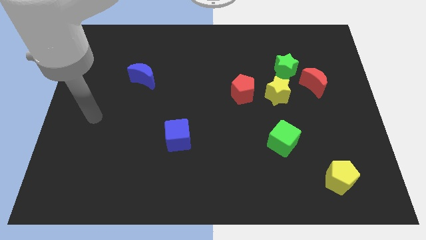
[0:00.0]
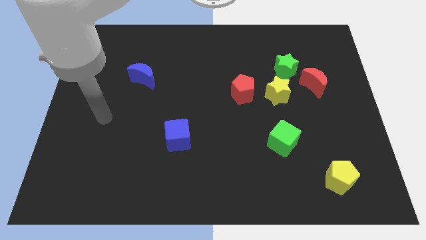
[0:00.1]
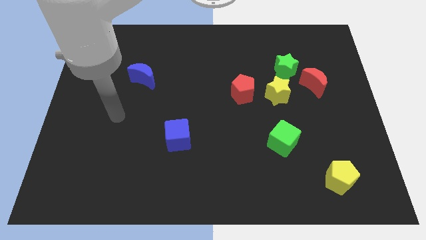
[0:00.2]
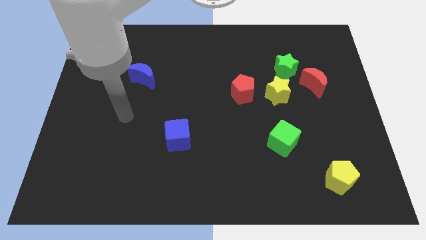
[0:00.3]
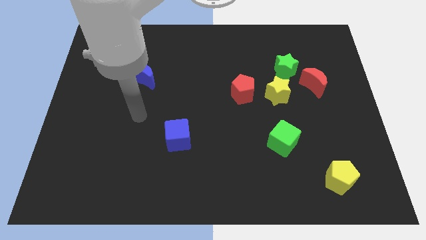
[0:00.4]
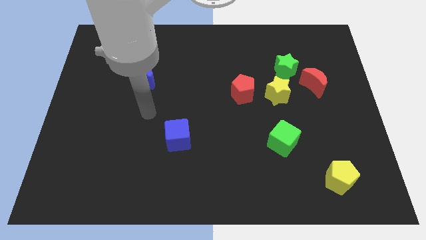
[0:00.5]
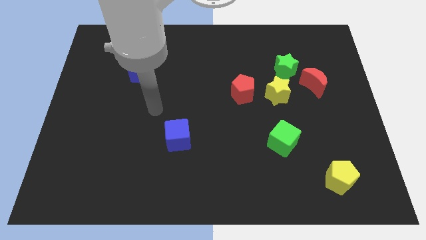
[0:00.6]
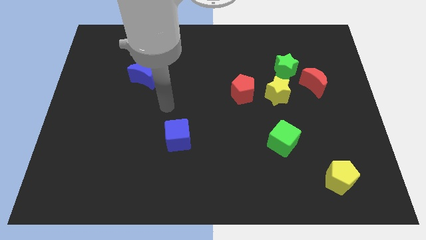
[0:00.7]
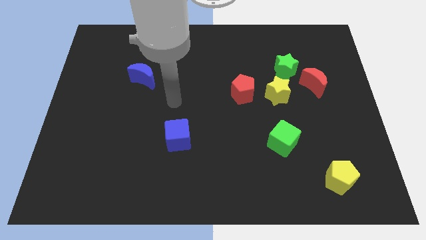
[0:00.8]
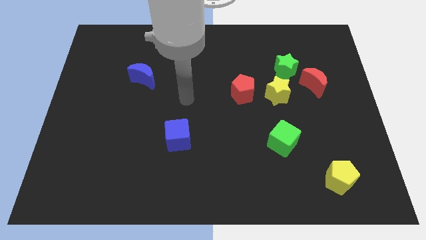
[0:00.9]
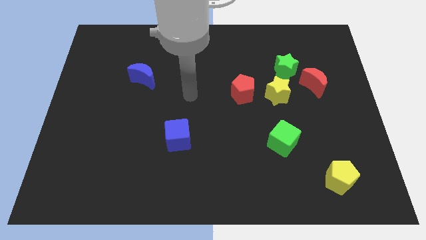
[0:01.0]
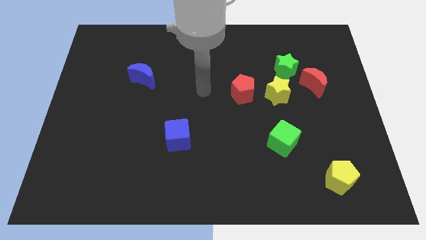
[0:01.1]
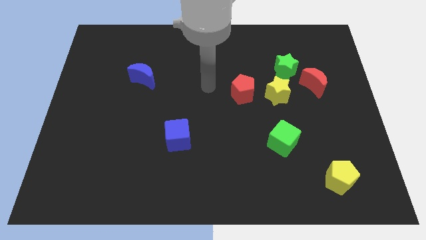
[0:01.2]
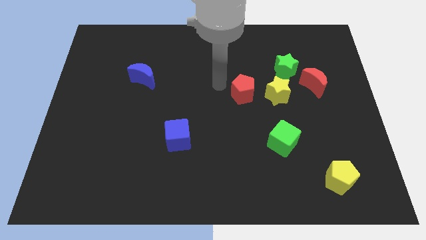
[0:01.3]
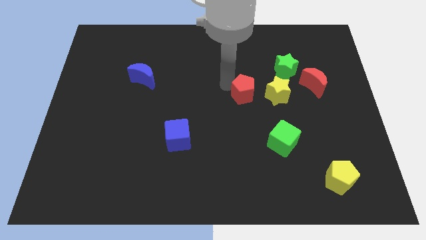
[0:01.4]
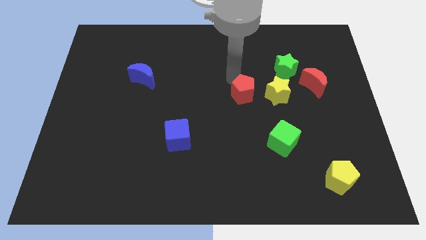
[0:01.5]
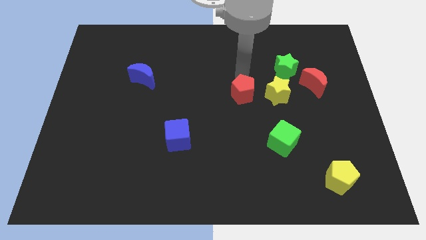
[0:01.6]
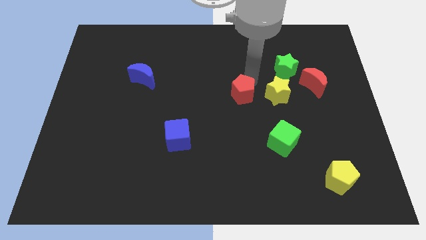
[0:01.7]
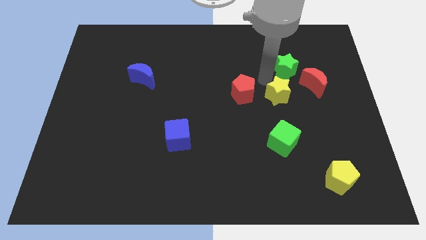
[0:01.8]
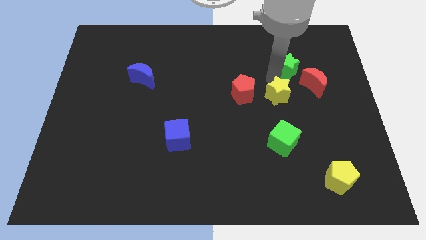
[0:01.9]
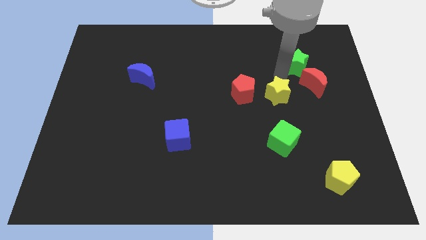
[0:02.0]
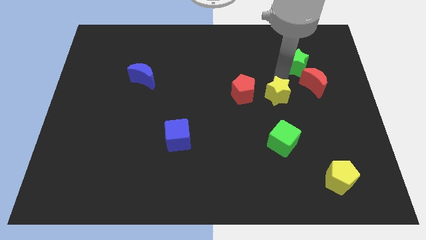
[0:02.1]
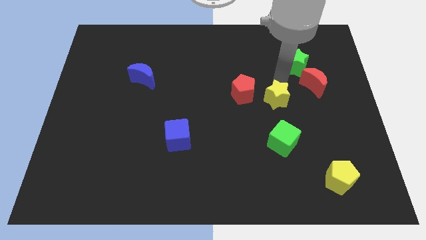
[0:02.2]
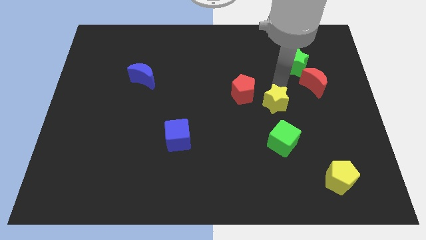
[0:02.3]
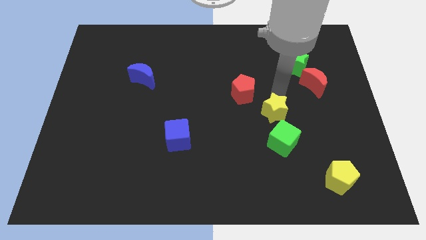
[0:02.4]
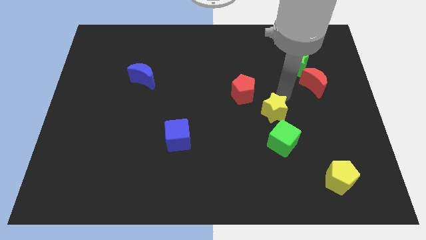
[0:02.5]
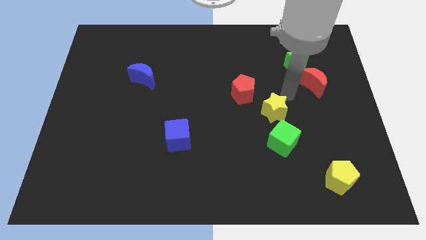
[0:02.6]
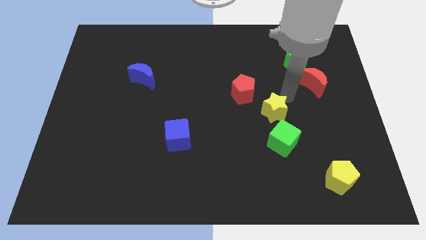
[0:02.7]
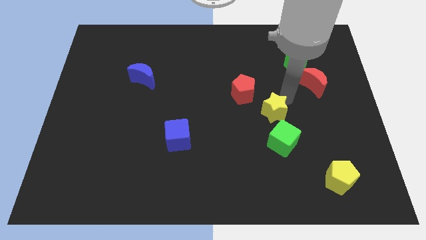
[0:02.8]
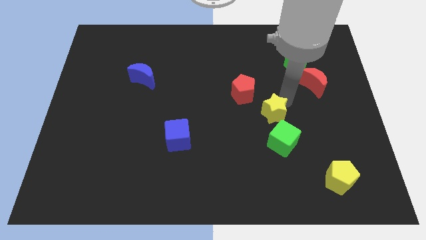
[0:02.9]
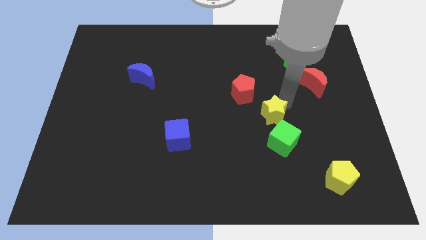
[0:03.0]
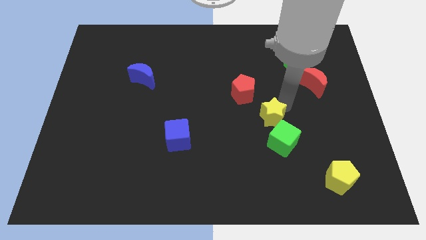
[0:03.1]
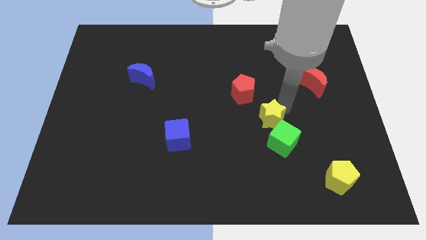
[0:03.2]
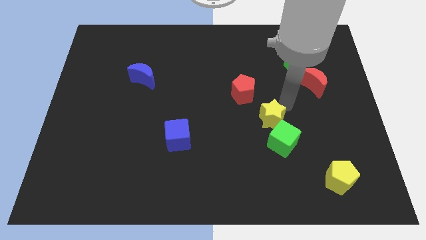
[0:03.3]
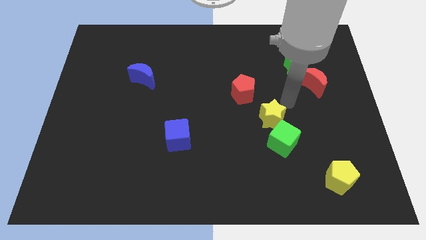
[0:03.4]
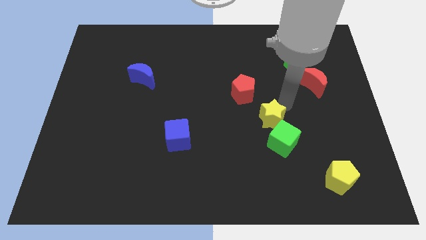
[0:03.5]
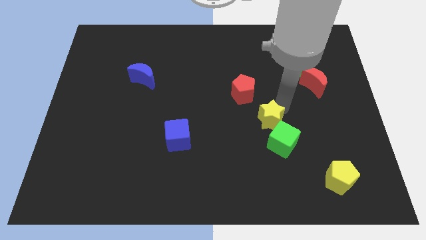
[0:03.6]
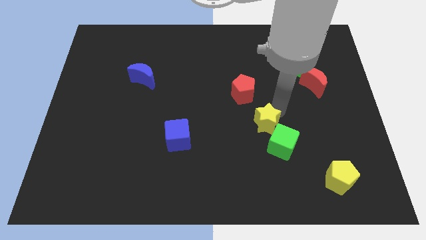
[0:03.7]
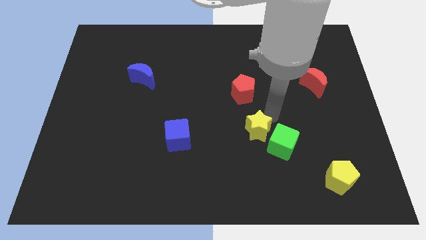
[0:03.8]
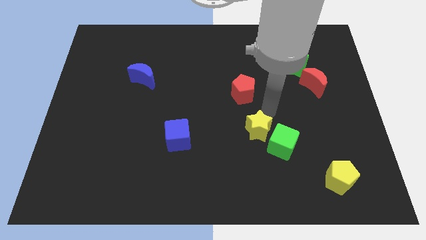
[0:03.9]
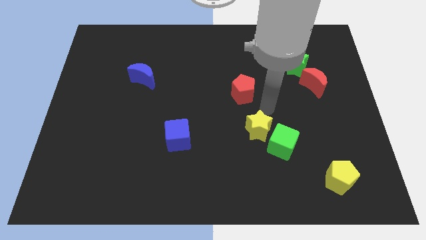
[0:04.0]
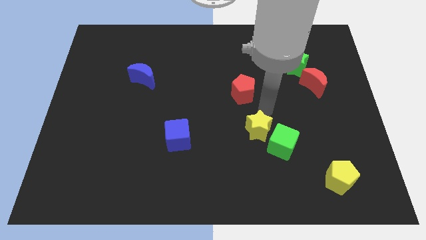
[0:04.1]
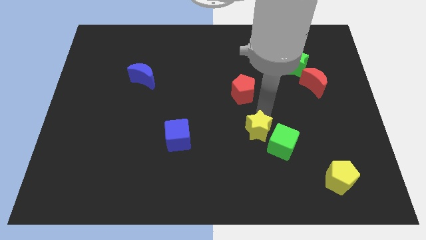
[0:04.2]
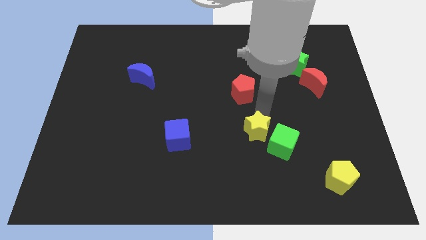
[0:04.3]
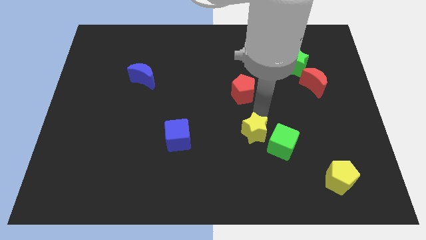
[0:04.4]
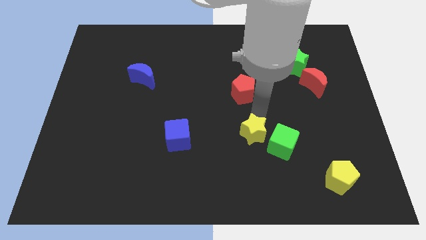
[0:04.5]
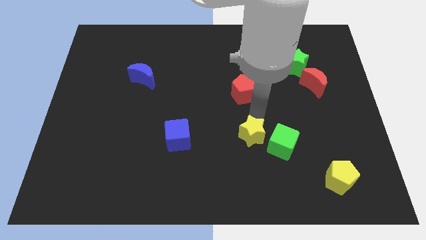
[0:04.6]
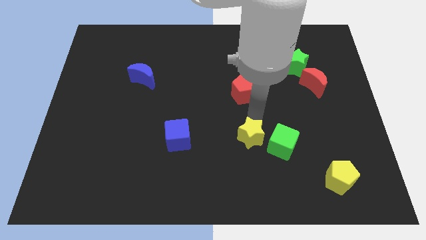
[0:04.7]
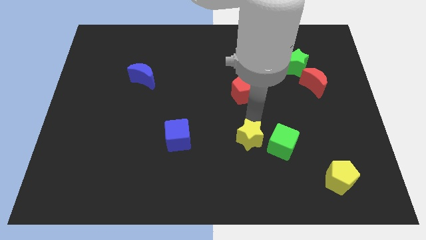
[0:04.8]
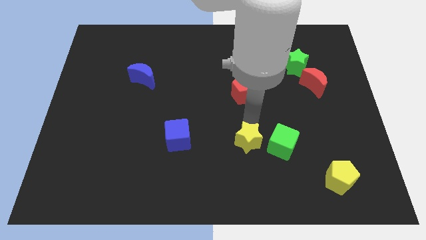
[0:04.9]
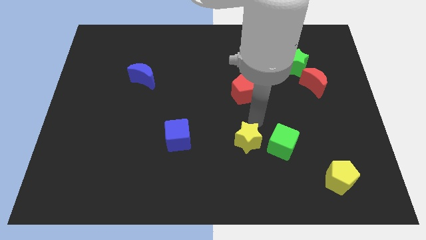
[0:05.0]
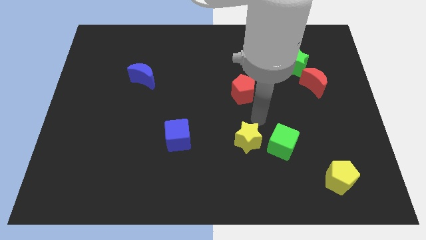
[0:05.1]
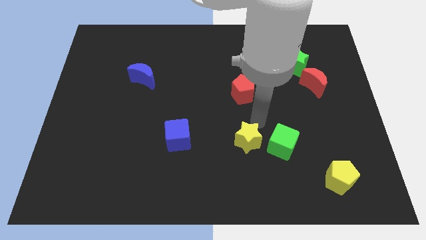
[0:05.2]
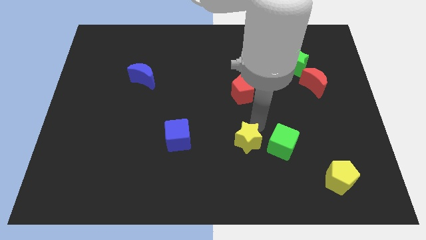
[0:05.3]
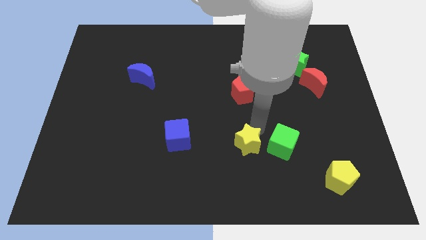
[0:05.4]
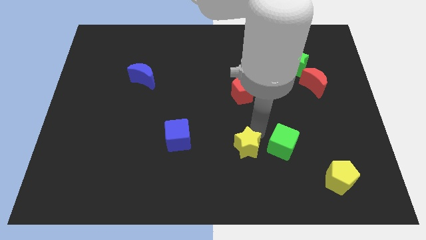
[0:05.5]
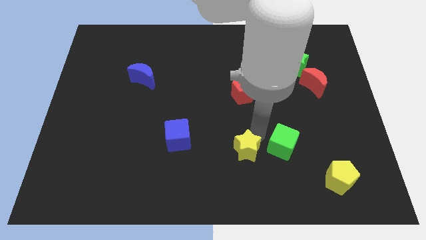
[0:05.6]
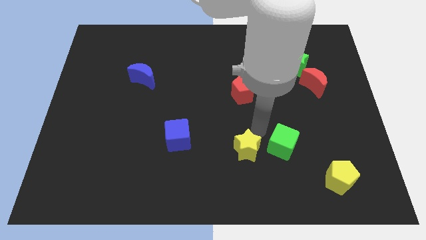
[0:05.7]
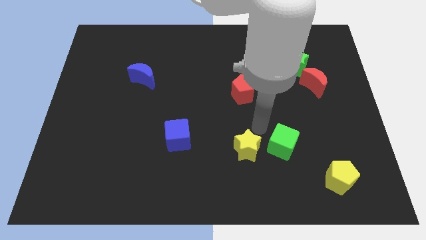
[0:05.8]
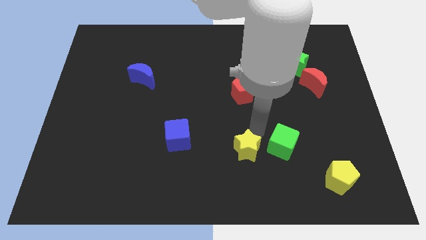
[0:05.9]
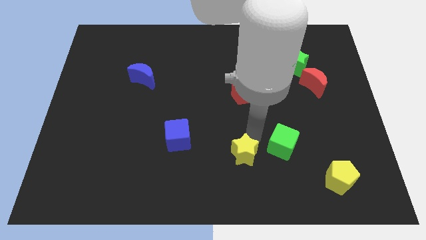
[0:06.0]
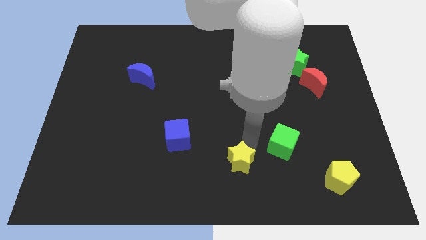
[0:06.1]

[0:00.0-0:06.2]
move the yellow star to the bottom side

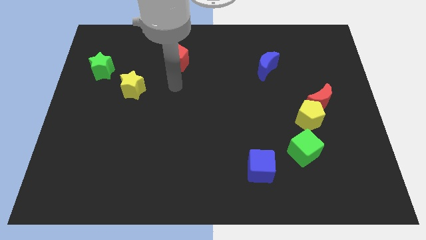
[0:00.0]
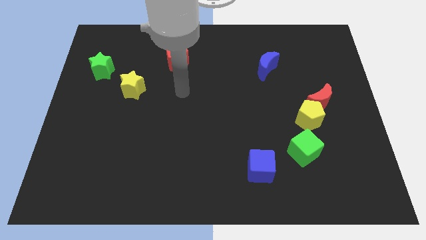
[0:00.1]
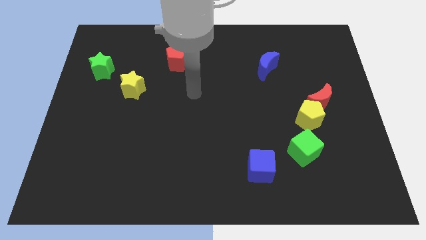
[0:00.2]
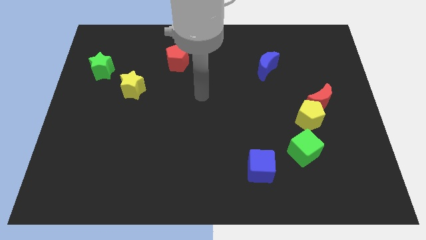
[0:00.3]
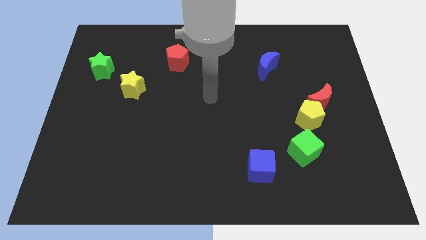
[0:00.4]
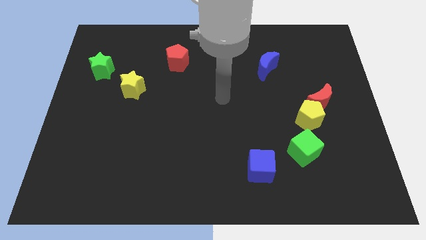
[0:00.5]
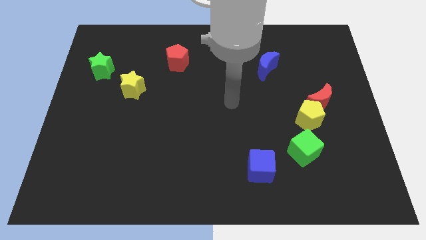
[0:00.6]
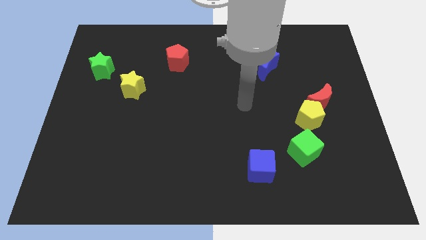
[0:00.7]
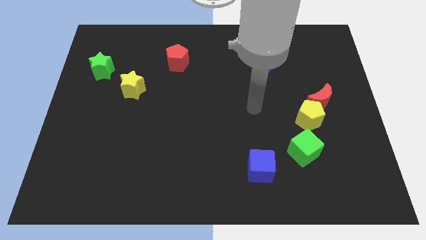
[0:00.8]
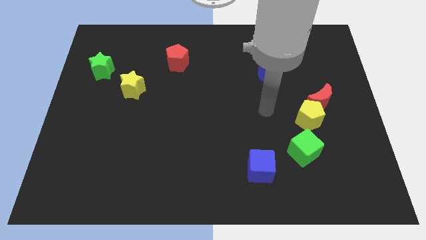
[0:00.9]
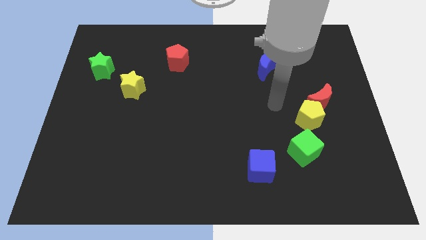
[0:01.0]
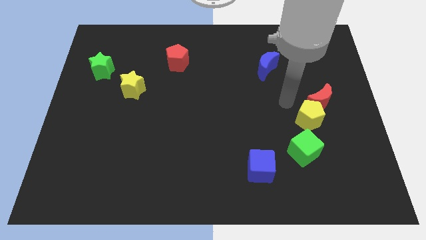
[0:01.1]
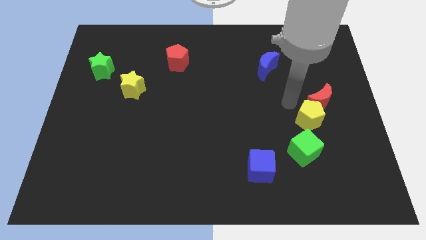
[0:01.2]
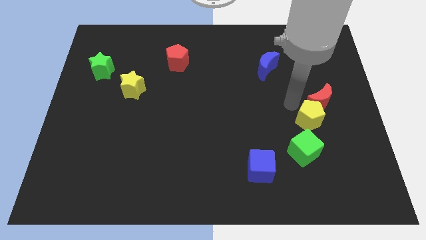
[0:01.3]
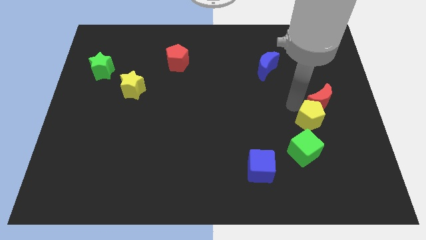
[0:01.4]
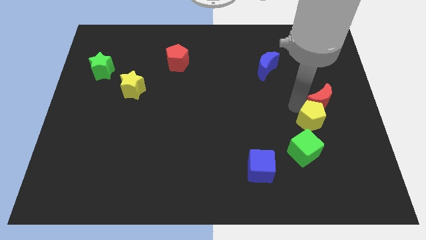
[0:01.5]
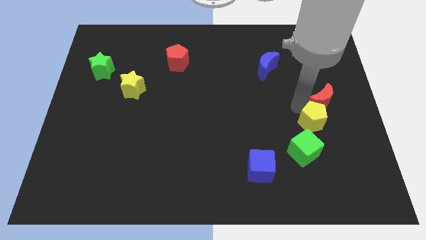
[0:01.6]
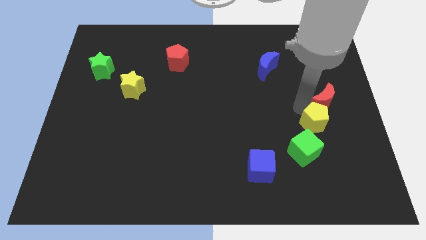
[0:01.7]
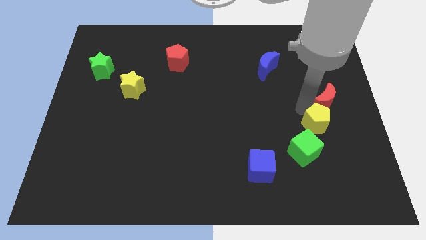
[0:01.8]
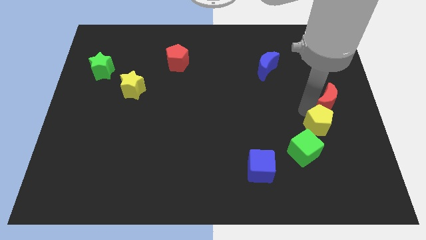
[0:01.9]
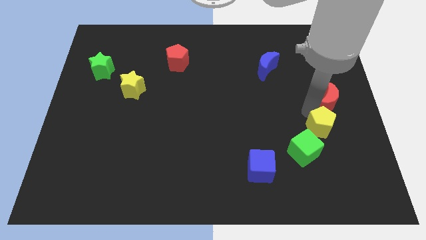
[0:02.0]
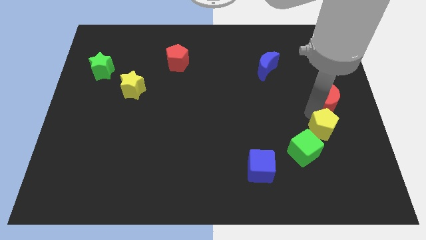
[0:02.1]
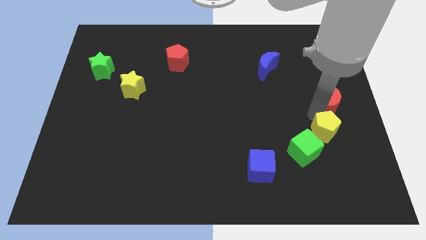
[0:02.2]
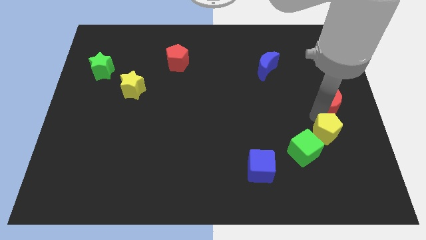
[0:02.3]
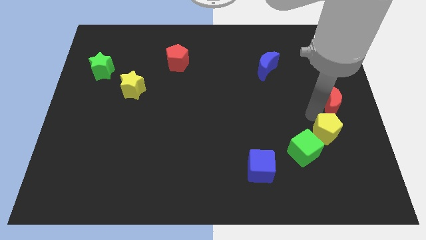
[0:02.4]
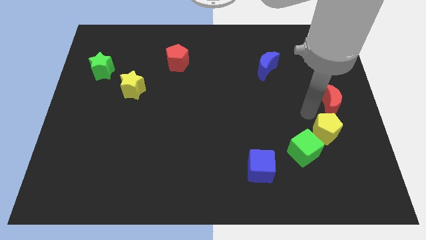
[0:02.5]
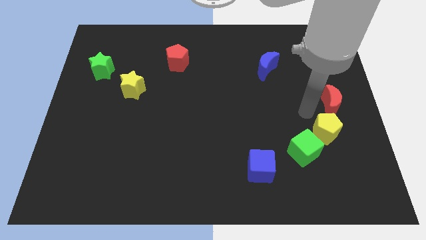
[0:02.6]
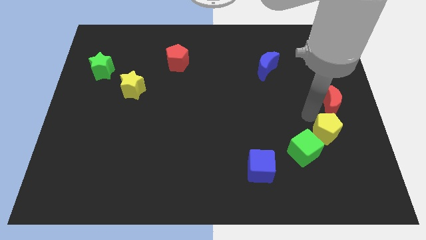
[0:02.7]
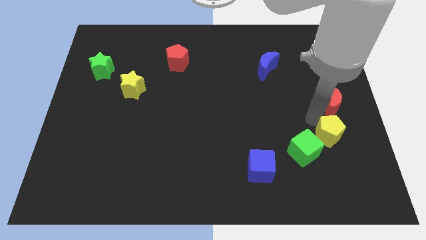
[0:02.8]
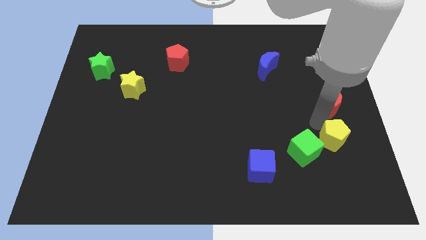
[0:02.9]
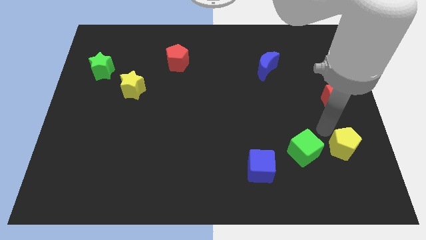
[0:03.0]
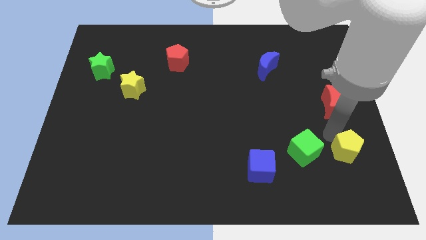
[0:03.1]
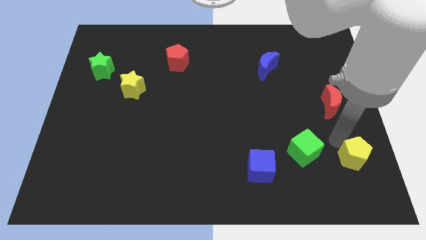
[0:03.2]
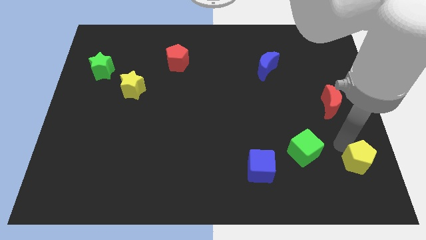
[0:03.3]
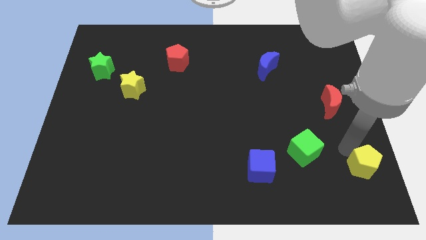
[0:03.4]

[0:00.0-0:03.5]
put the yellow pentagon to the bottom right of the board
